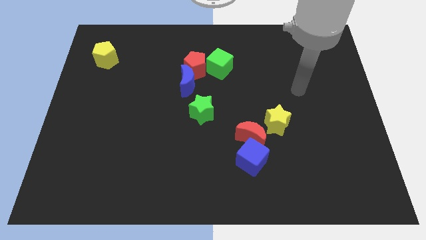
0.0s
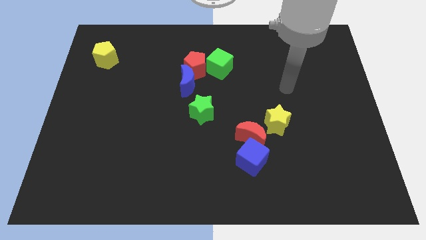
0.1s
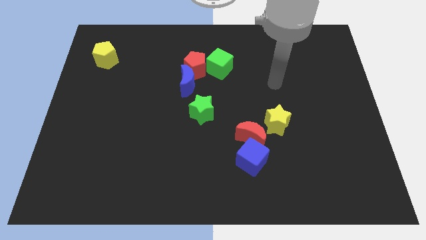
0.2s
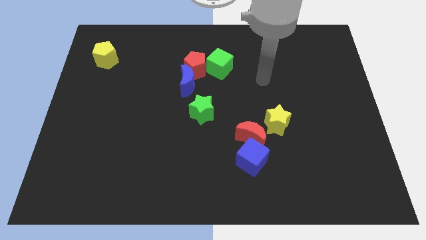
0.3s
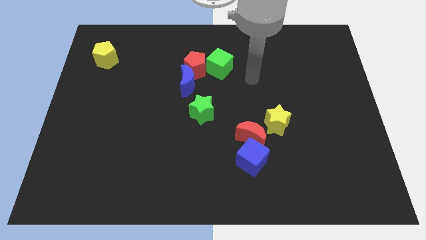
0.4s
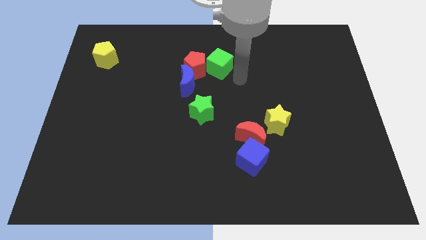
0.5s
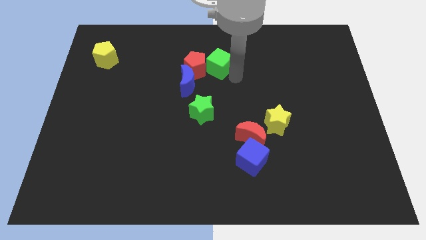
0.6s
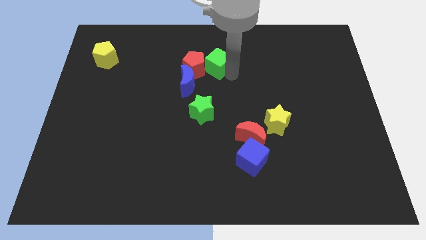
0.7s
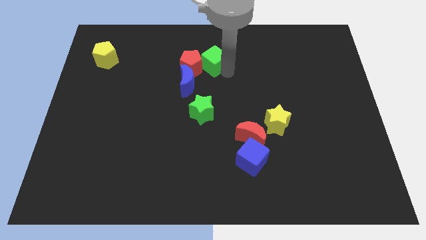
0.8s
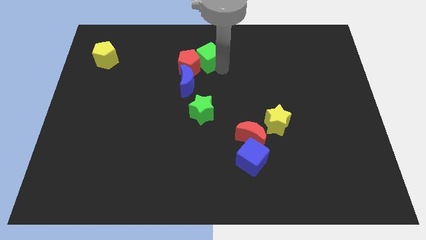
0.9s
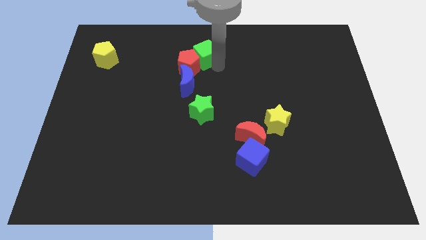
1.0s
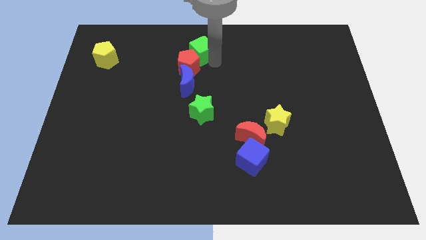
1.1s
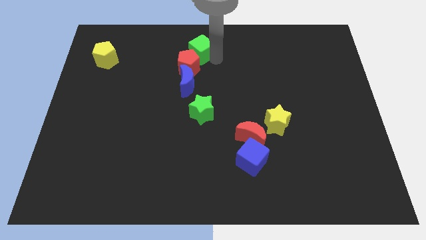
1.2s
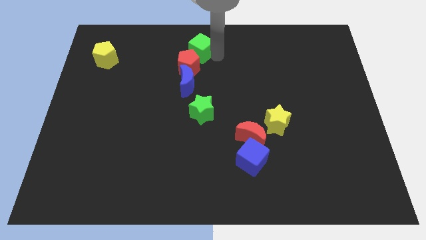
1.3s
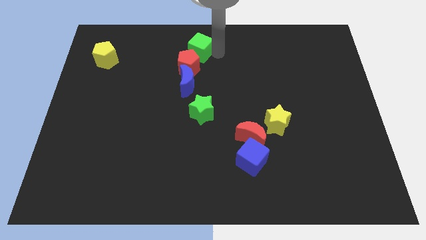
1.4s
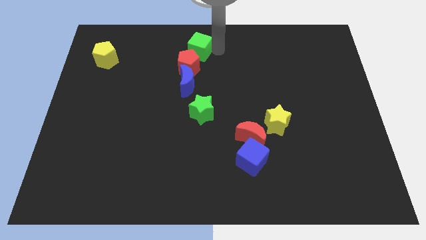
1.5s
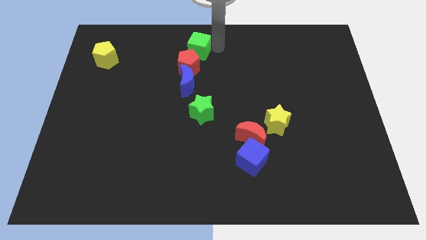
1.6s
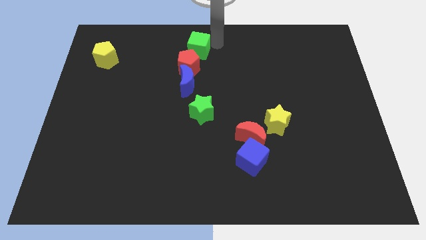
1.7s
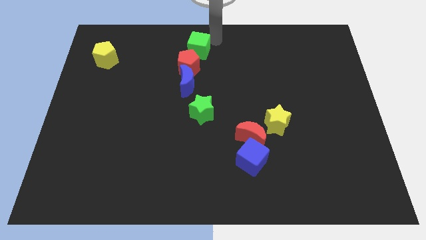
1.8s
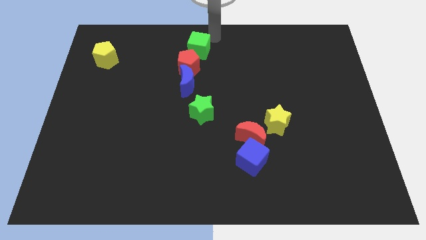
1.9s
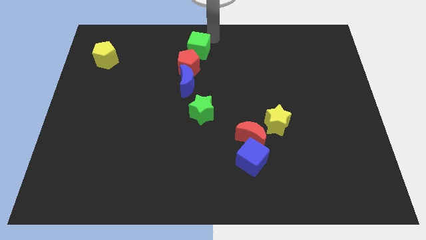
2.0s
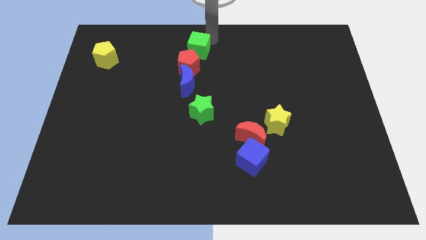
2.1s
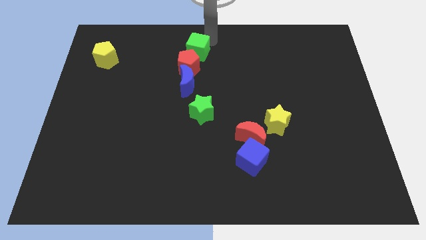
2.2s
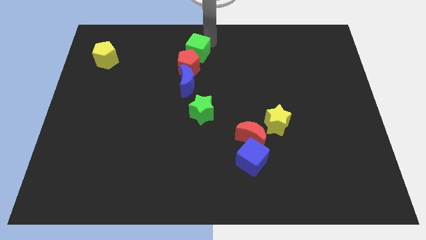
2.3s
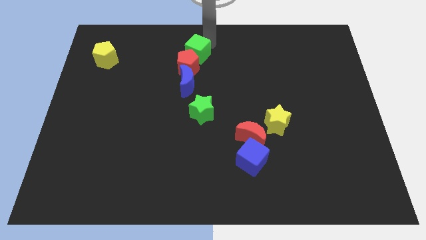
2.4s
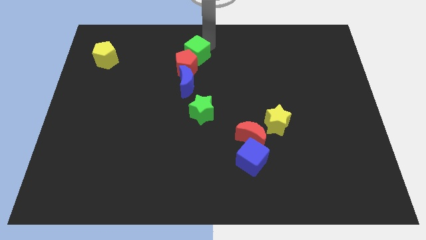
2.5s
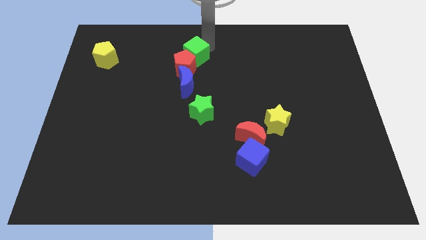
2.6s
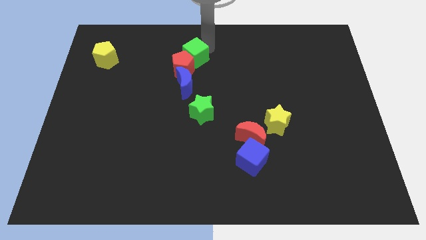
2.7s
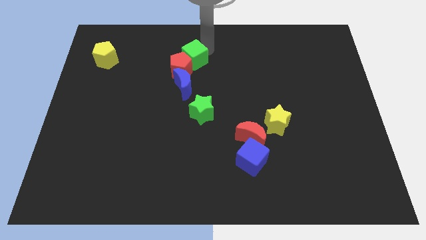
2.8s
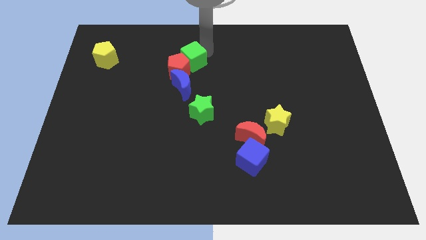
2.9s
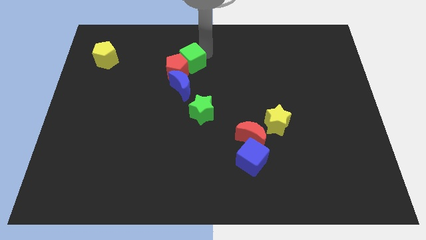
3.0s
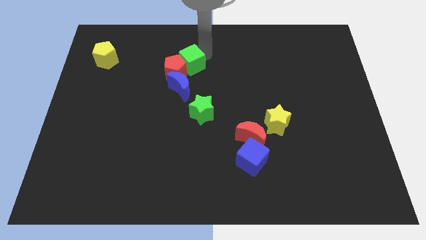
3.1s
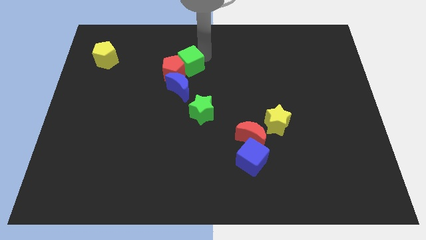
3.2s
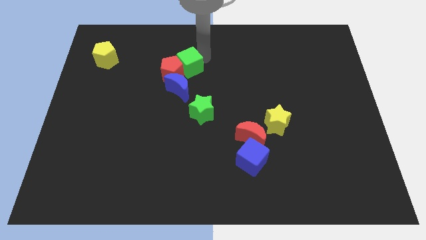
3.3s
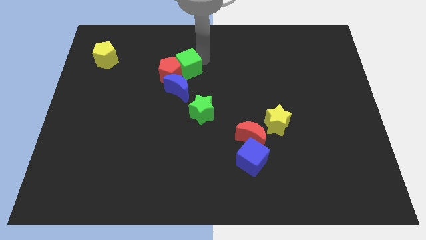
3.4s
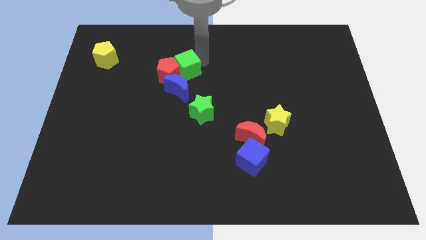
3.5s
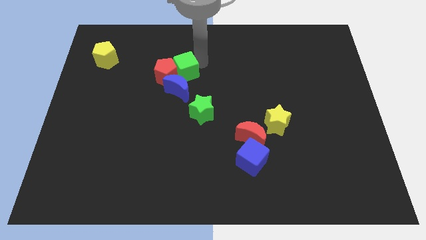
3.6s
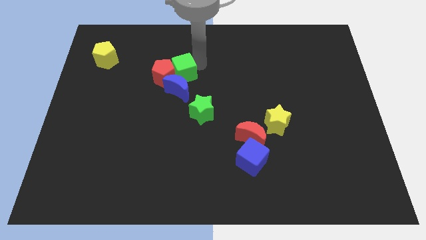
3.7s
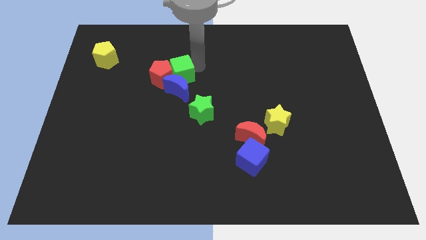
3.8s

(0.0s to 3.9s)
push the green cube a bit down and then to the left

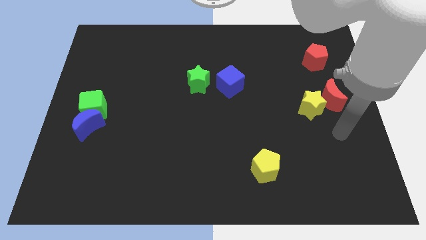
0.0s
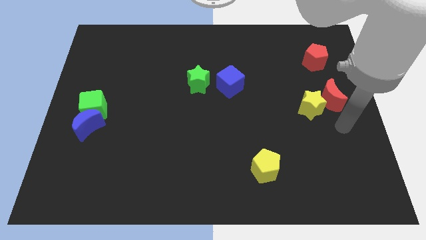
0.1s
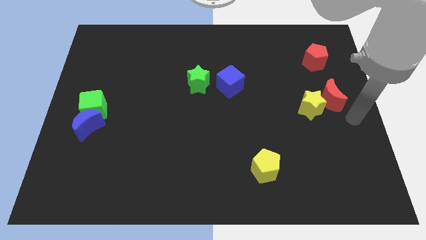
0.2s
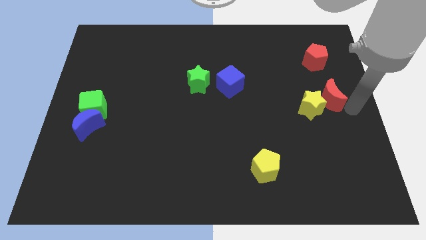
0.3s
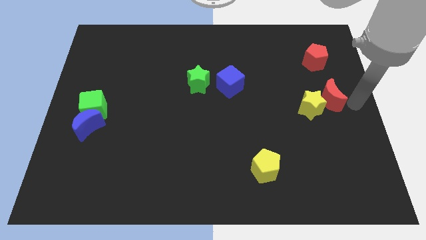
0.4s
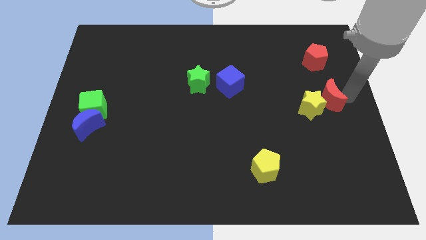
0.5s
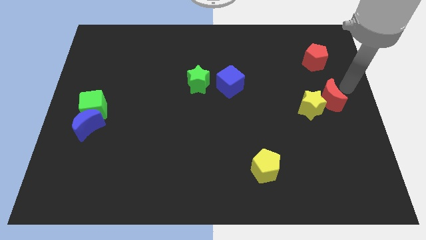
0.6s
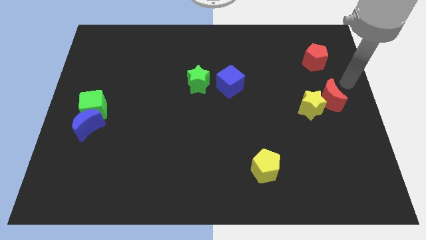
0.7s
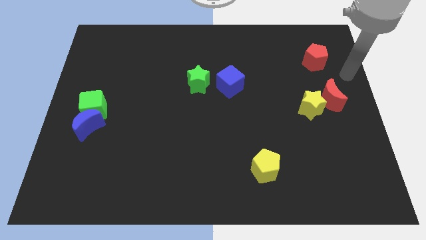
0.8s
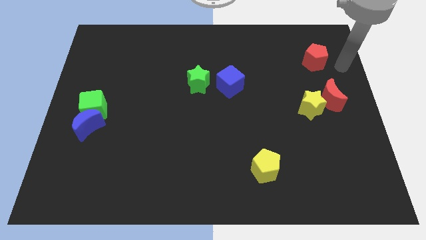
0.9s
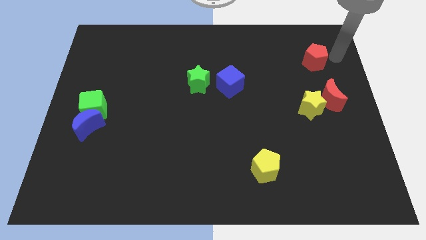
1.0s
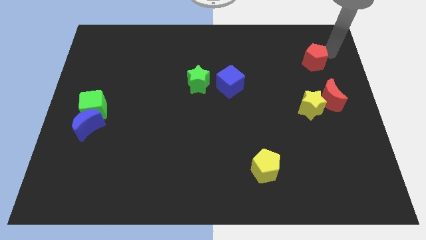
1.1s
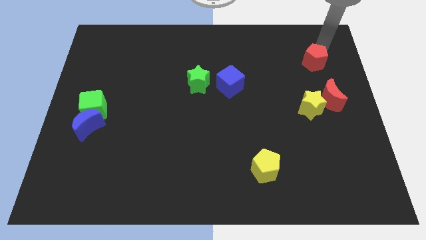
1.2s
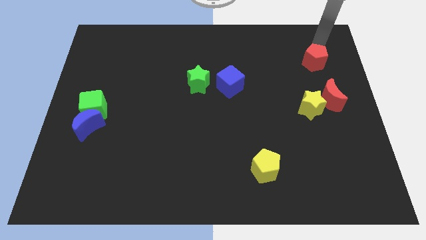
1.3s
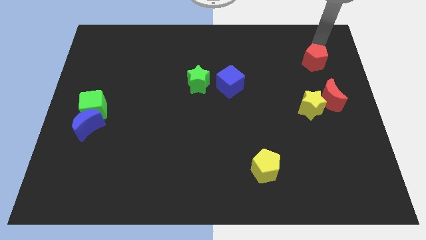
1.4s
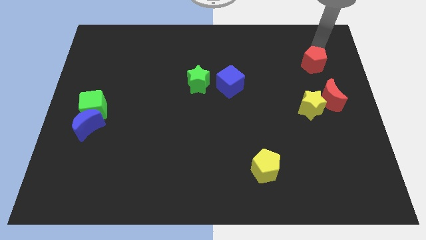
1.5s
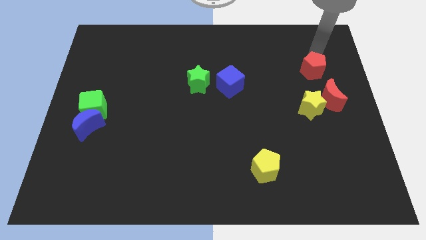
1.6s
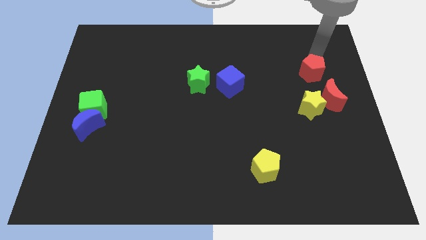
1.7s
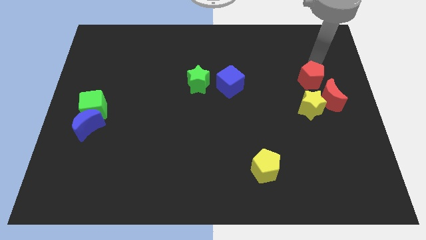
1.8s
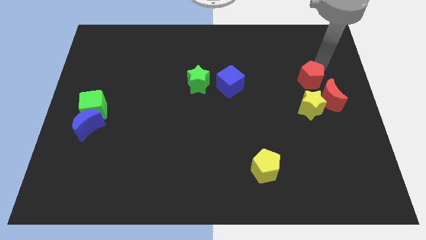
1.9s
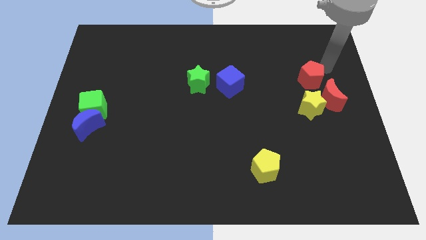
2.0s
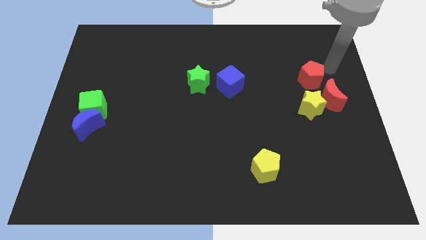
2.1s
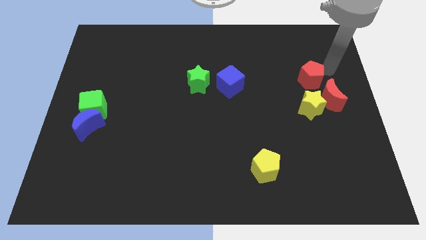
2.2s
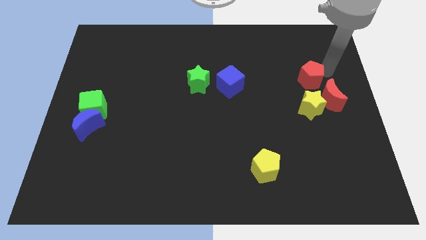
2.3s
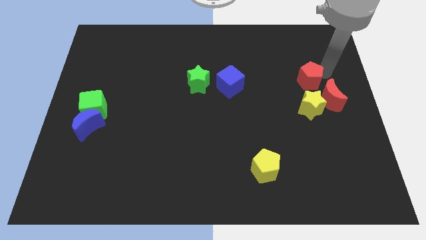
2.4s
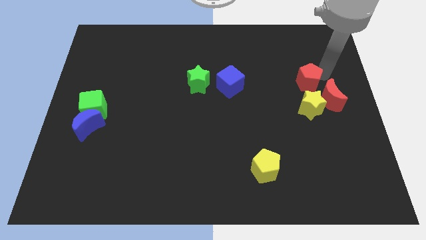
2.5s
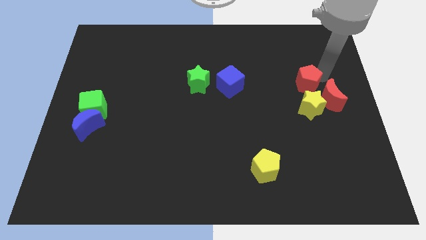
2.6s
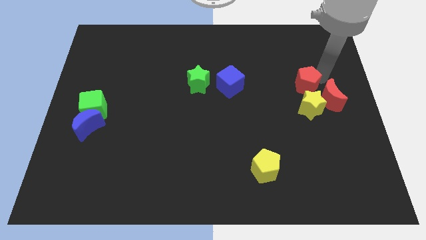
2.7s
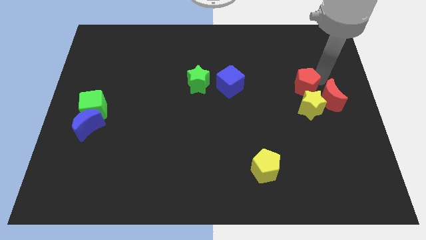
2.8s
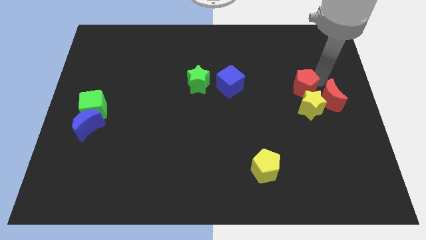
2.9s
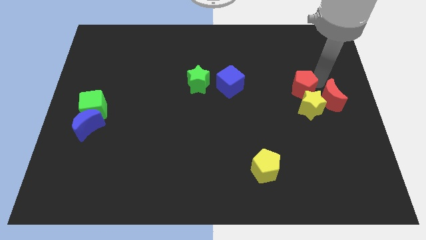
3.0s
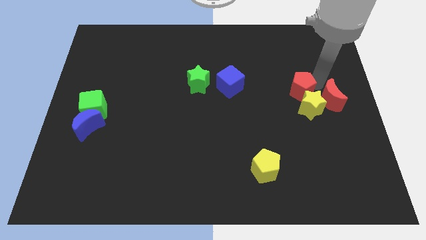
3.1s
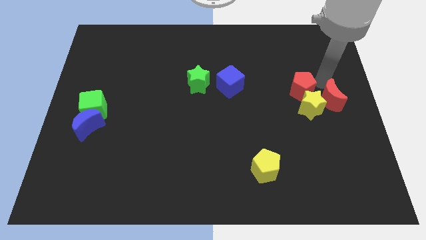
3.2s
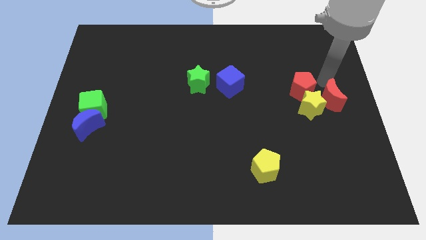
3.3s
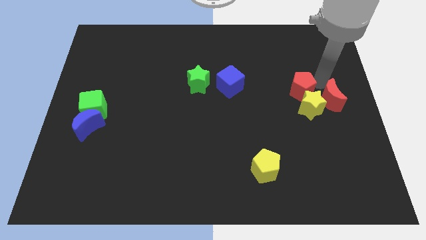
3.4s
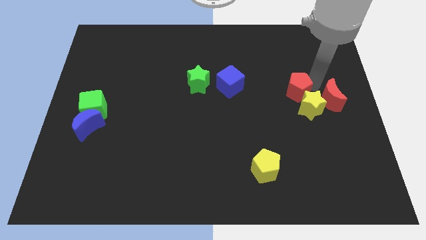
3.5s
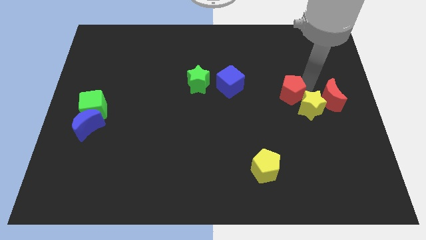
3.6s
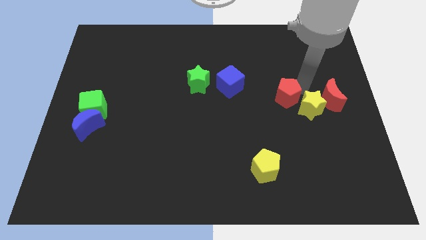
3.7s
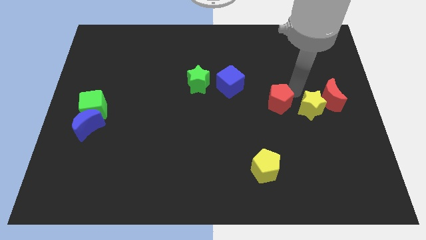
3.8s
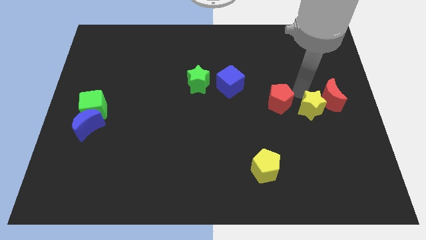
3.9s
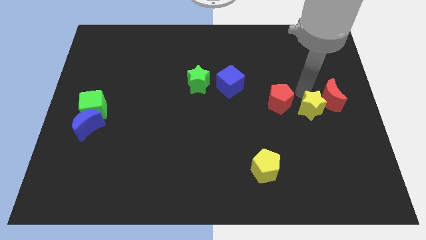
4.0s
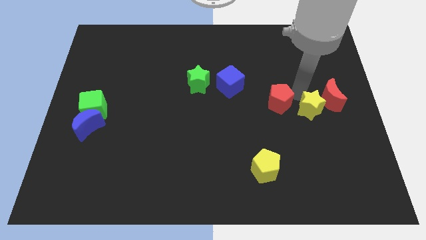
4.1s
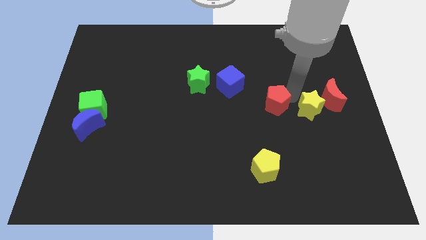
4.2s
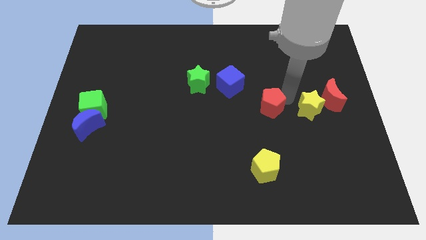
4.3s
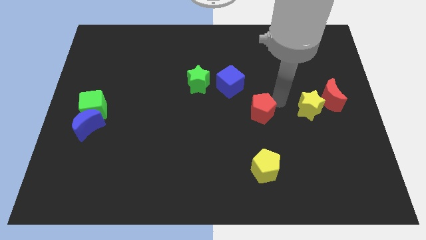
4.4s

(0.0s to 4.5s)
move the red pentagon downwards and to the left
